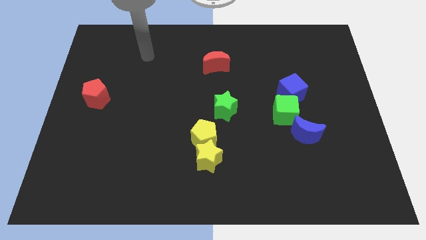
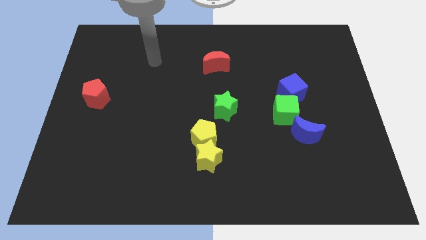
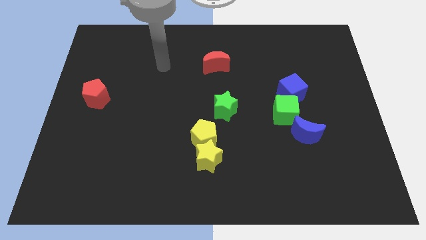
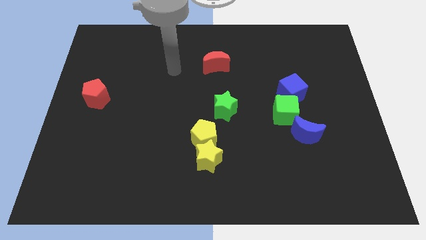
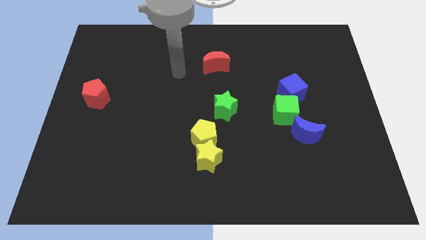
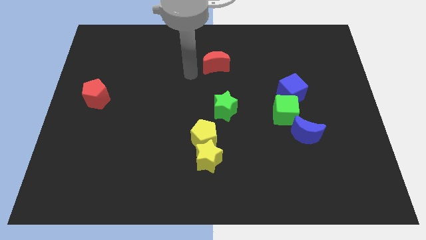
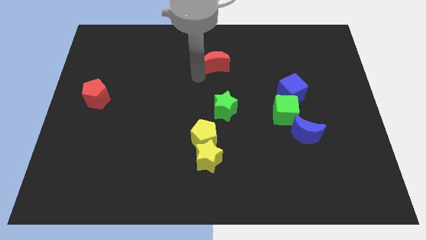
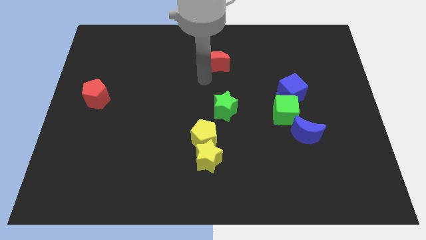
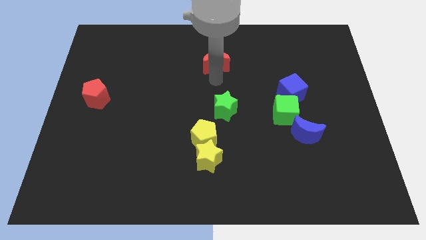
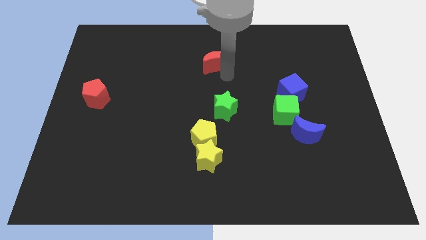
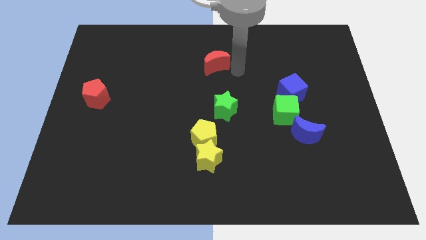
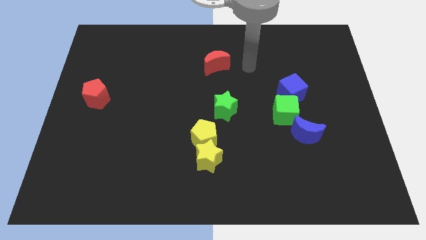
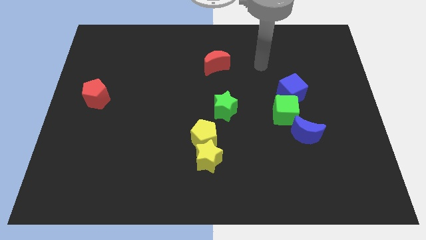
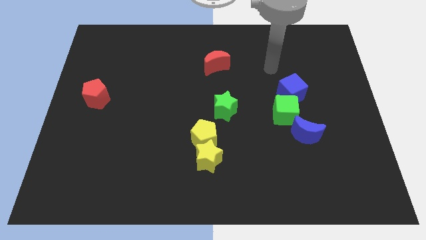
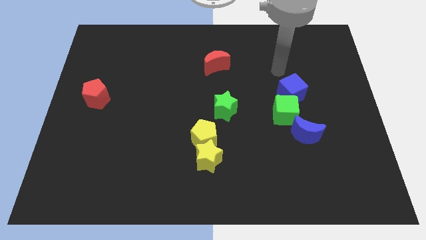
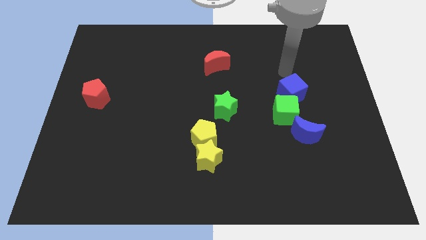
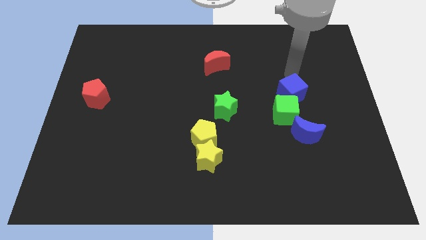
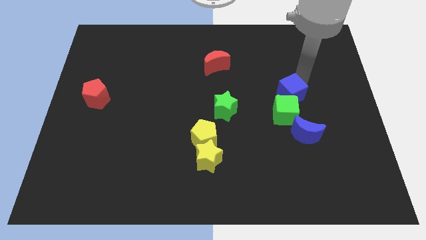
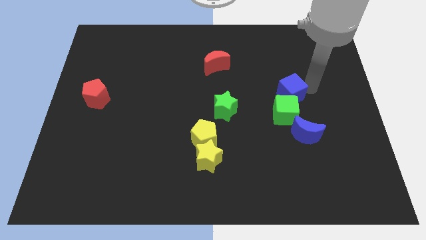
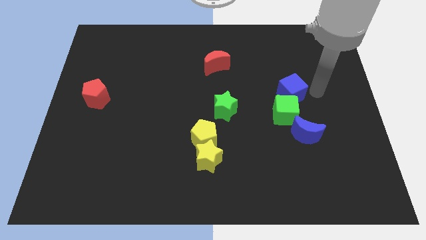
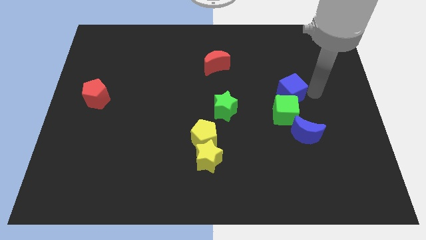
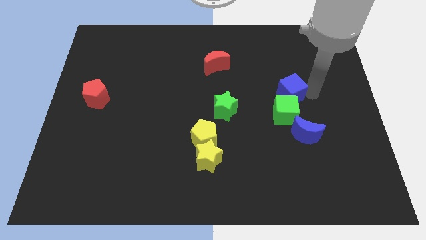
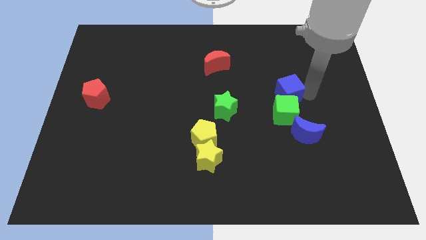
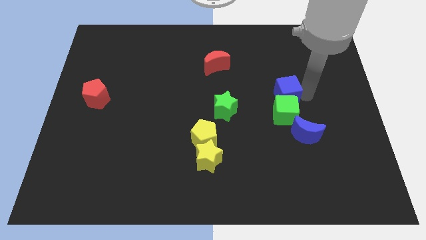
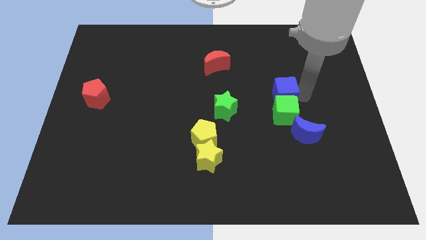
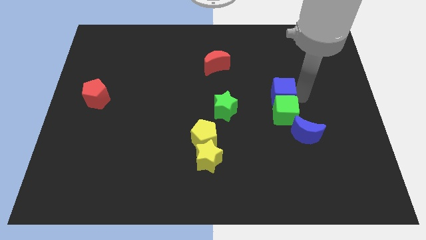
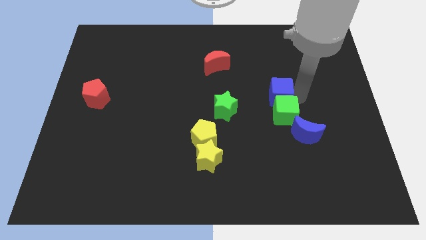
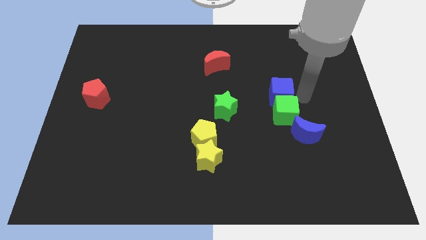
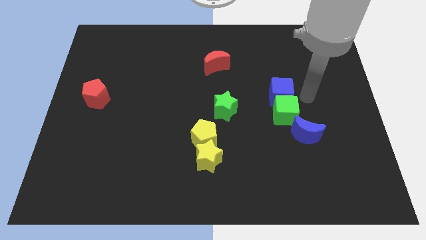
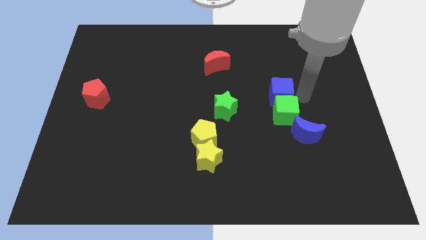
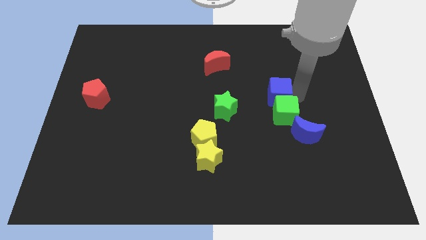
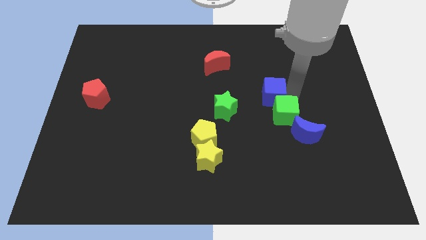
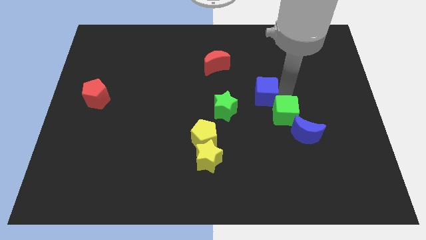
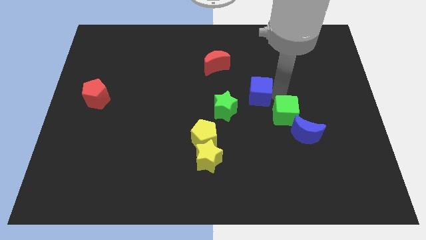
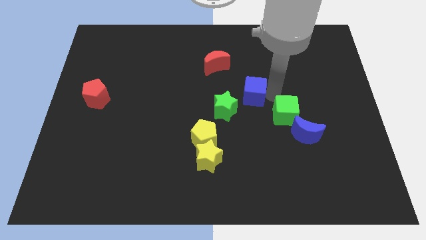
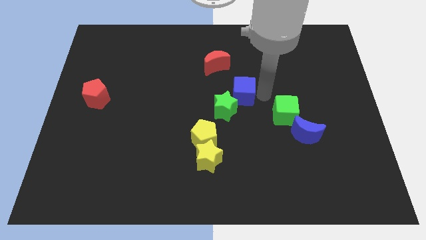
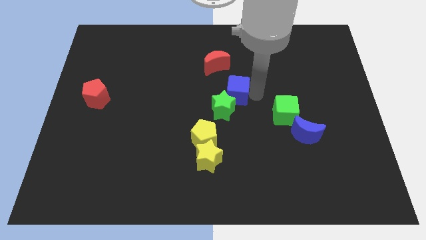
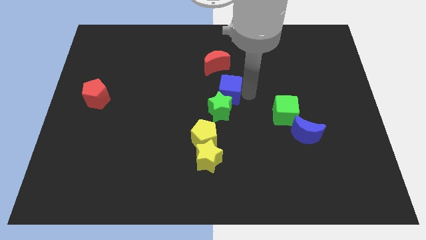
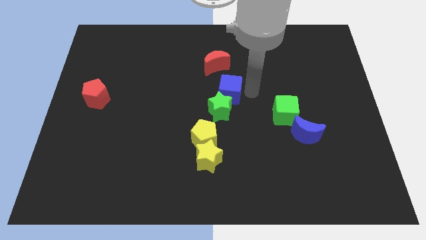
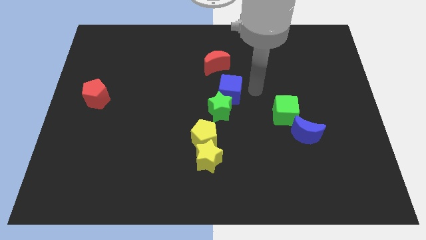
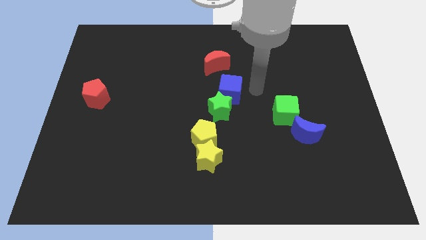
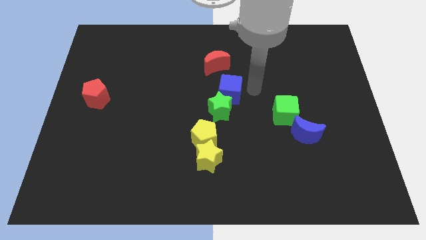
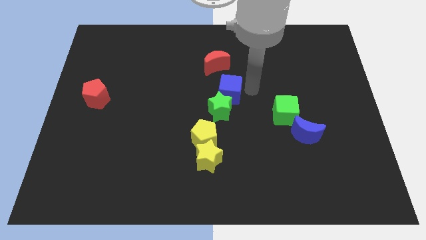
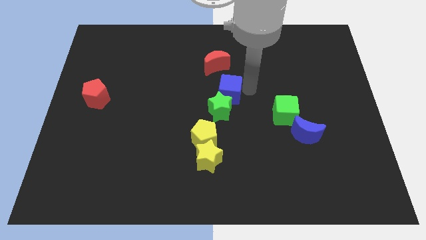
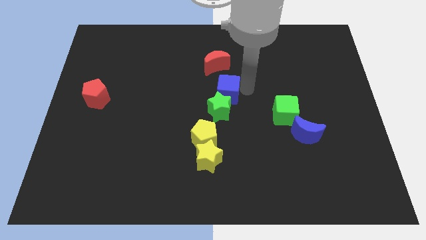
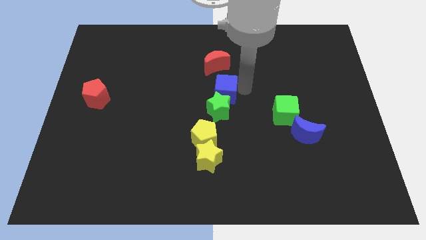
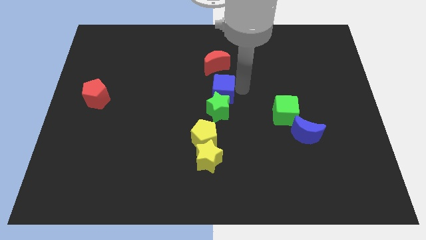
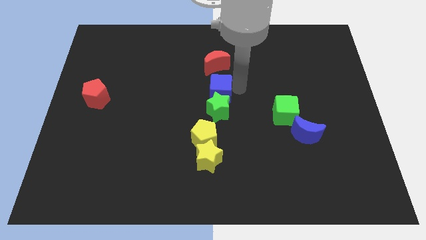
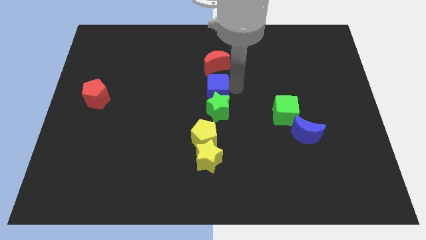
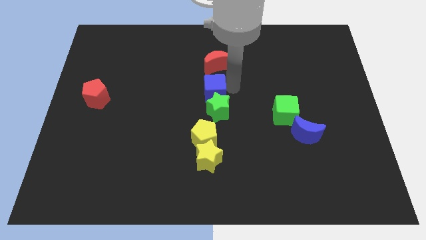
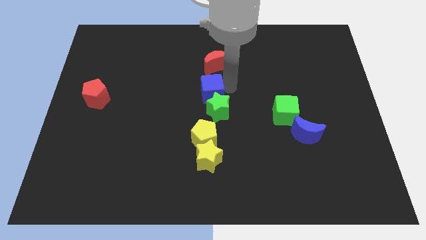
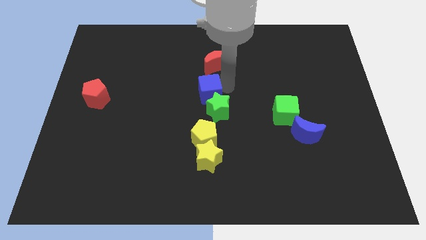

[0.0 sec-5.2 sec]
push the blue cube to the left

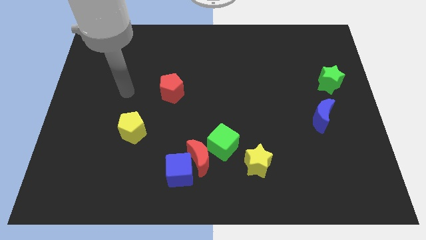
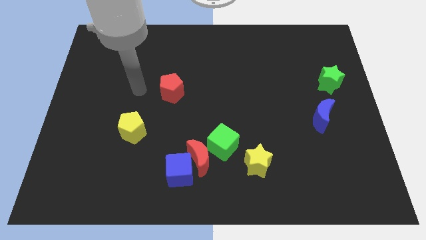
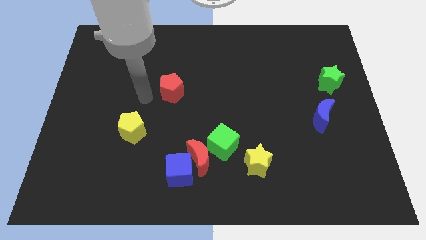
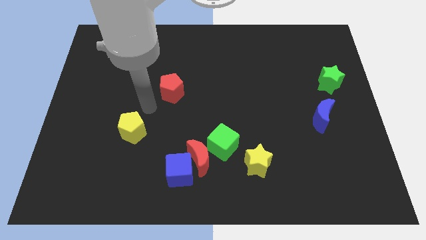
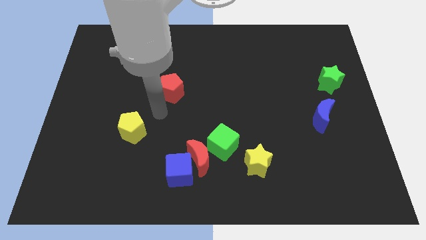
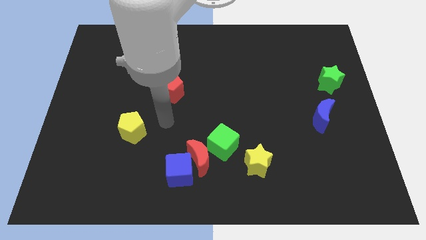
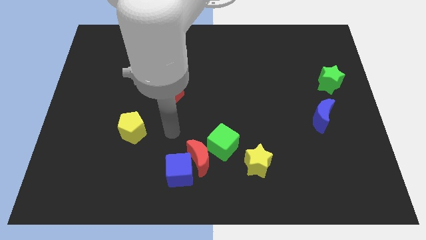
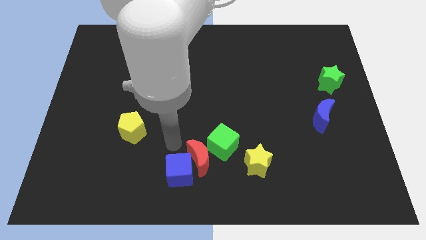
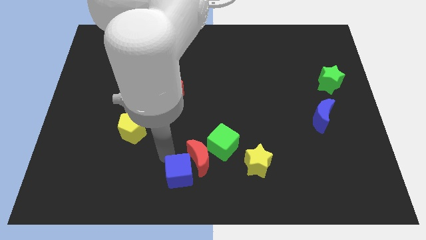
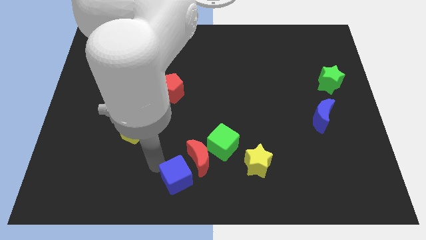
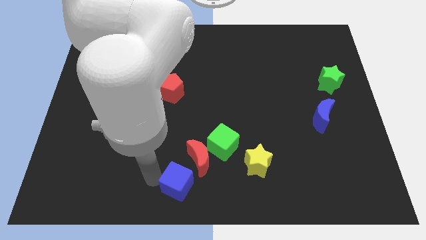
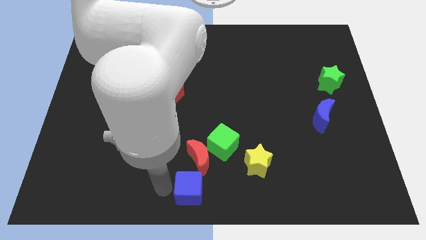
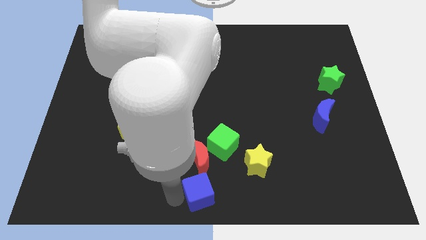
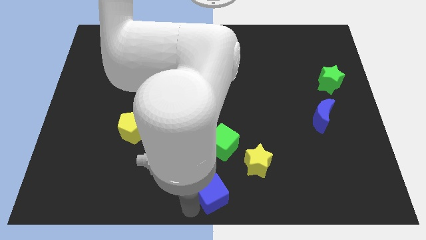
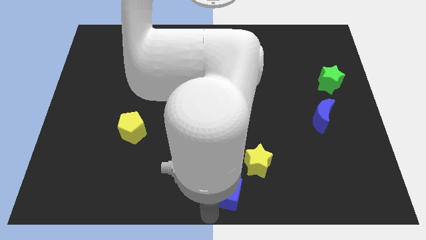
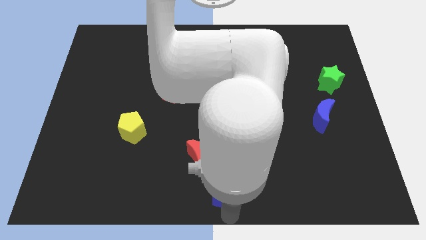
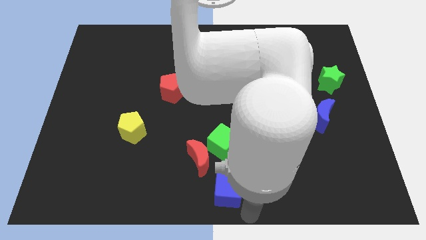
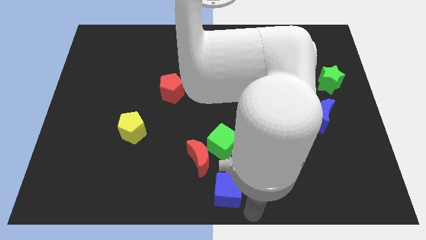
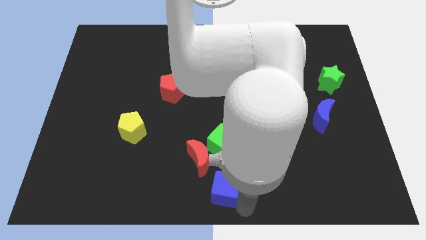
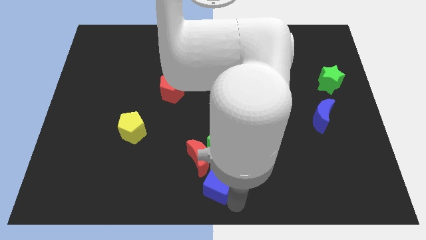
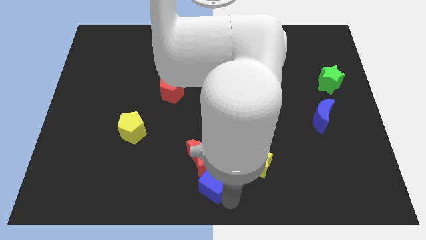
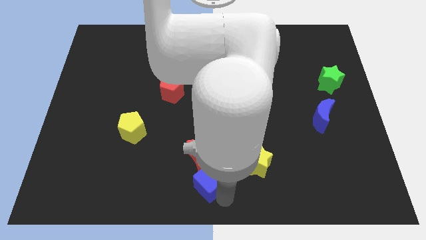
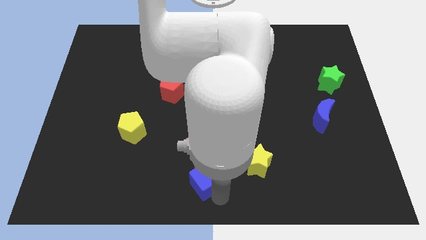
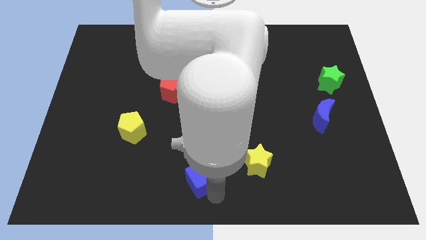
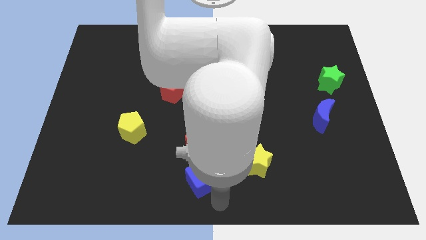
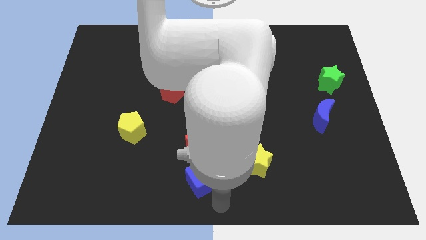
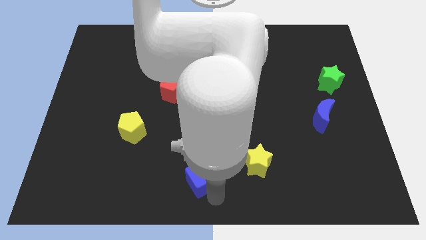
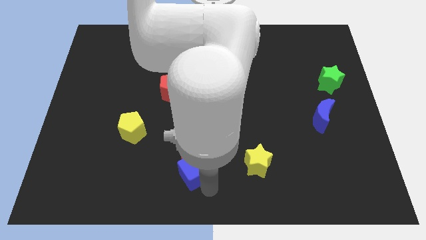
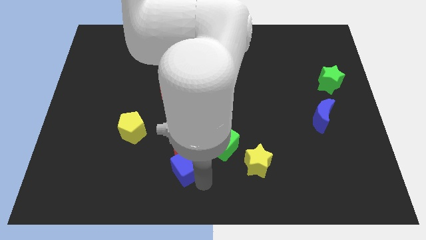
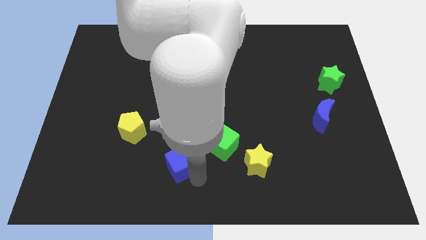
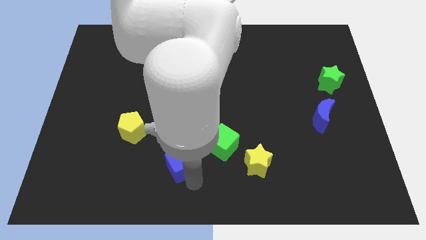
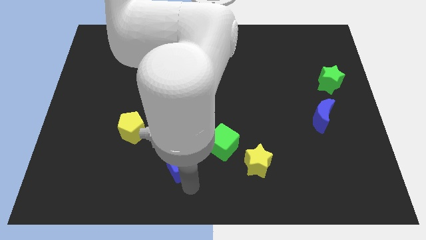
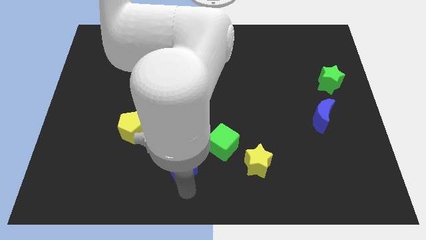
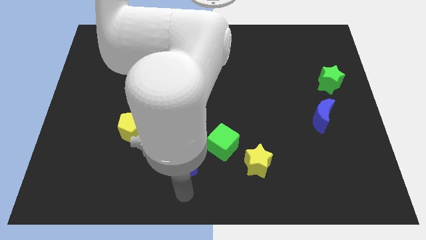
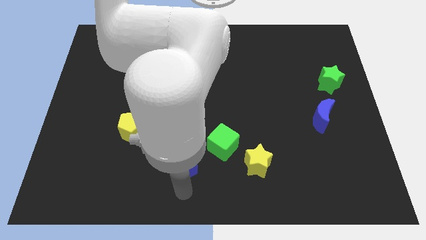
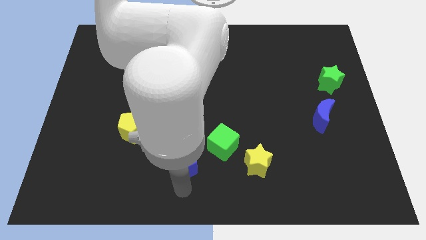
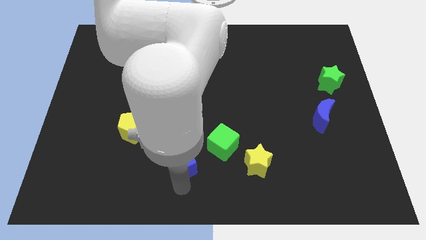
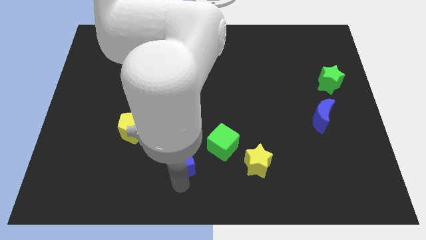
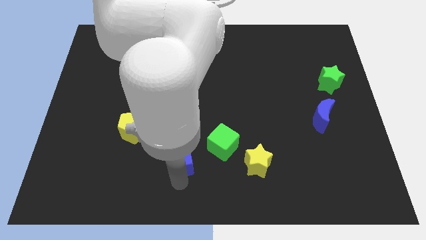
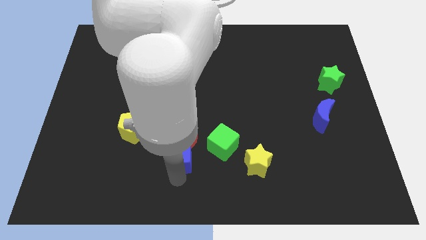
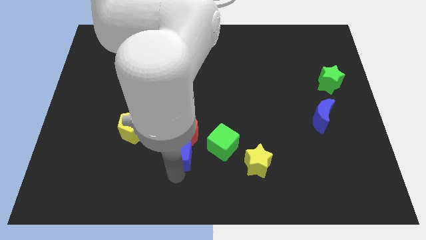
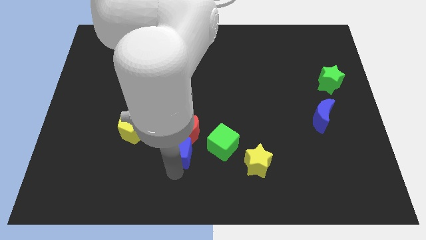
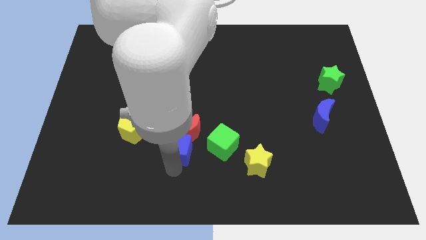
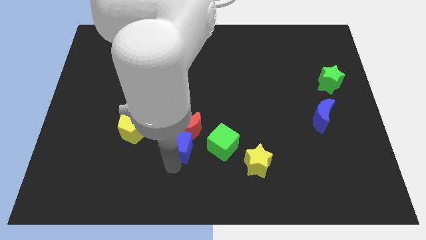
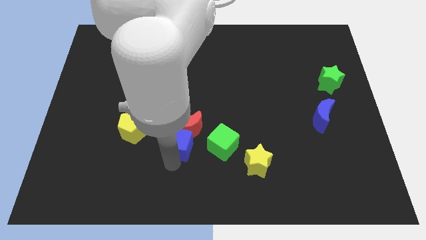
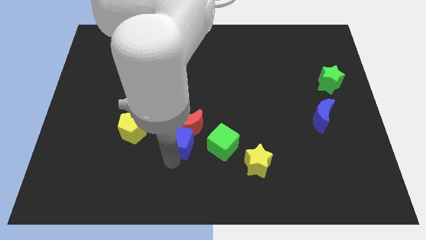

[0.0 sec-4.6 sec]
move the blue cube slightly up
